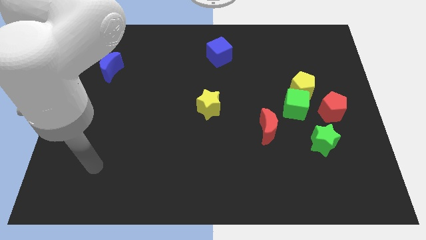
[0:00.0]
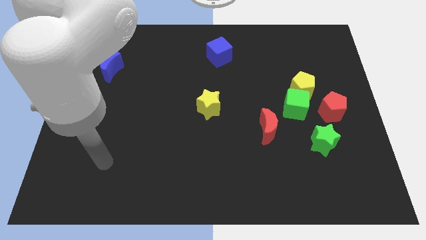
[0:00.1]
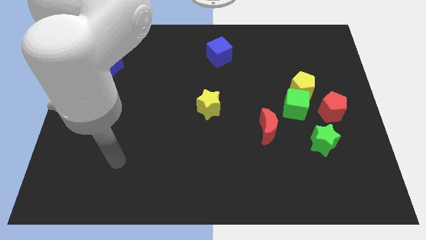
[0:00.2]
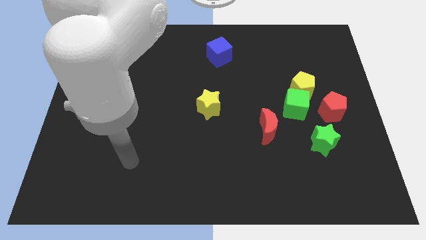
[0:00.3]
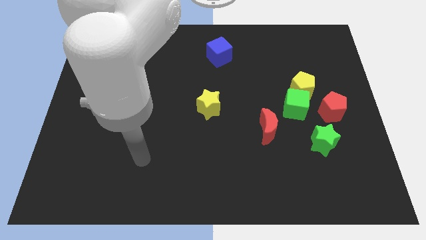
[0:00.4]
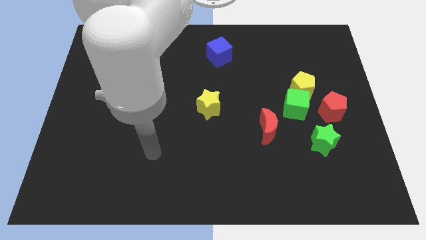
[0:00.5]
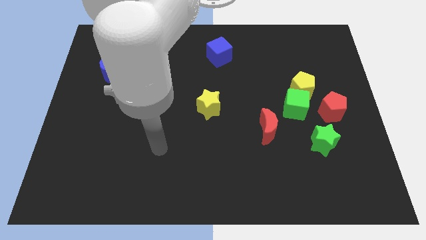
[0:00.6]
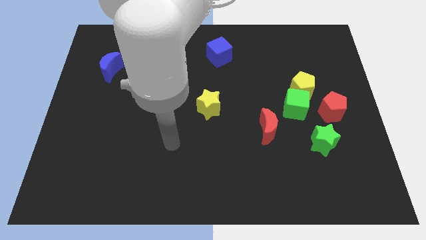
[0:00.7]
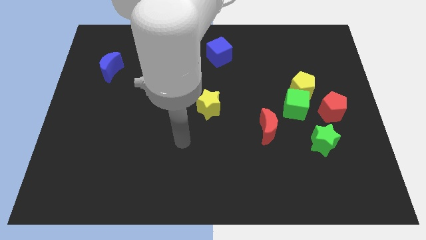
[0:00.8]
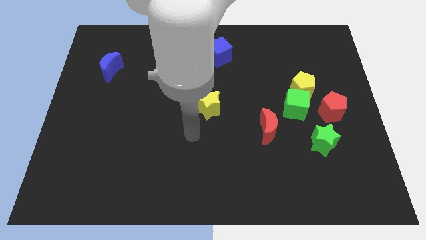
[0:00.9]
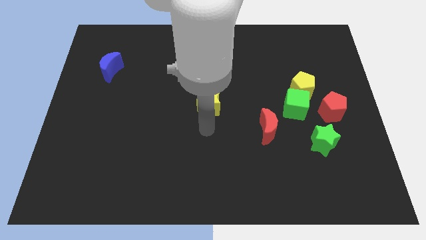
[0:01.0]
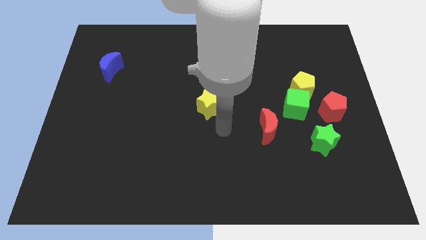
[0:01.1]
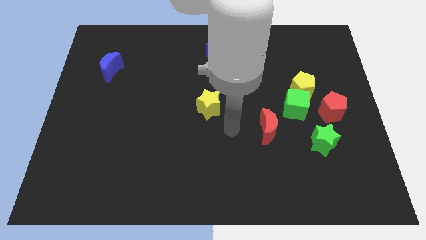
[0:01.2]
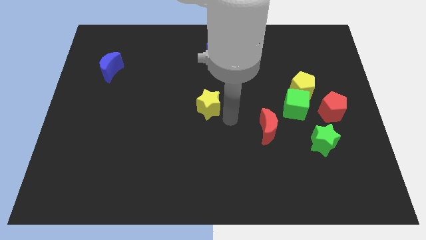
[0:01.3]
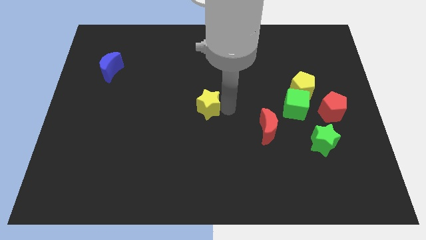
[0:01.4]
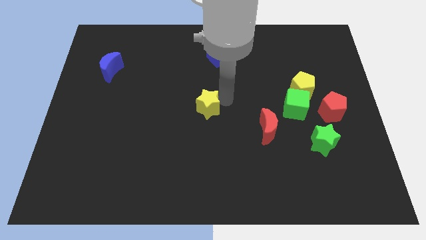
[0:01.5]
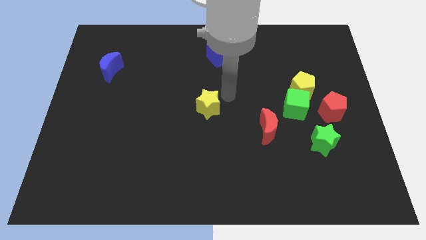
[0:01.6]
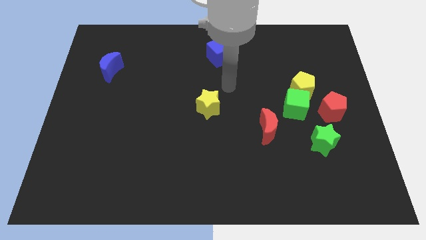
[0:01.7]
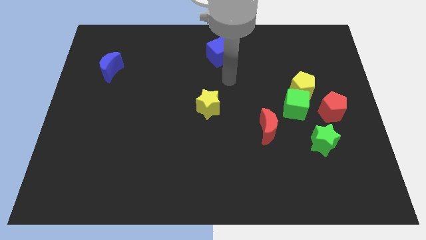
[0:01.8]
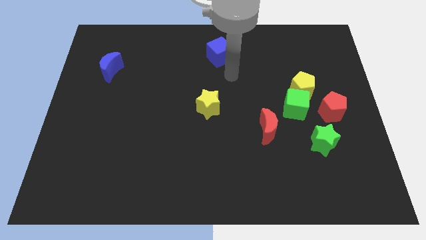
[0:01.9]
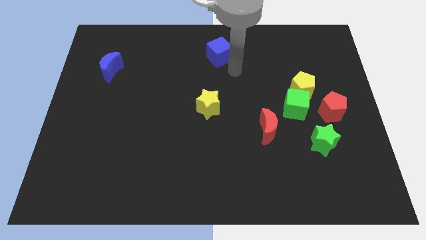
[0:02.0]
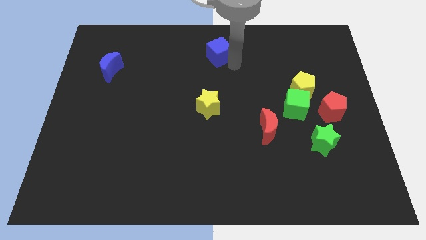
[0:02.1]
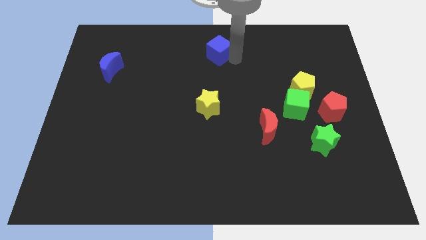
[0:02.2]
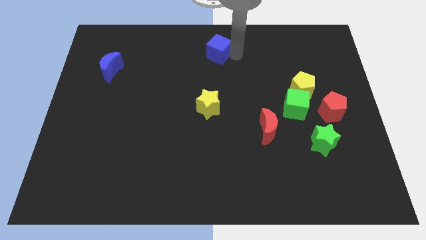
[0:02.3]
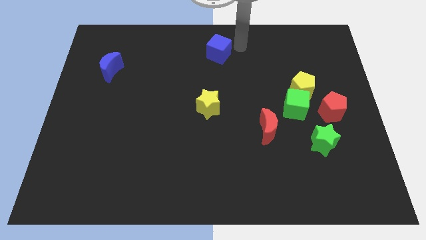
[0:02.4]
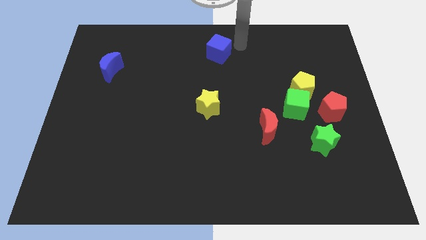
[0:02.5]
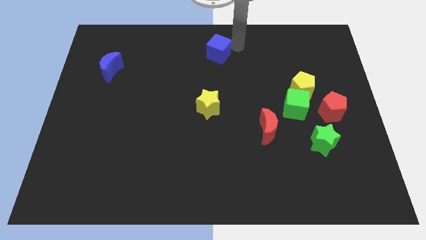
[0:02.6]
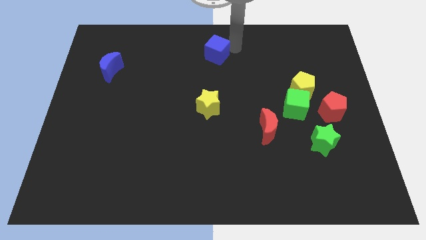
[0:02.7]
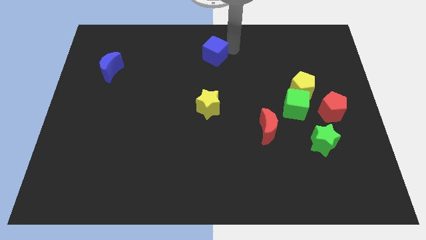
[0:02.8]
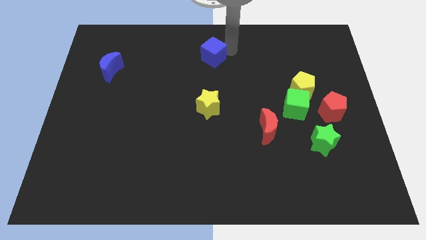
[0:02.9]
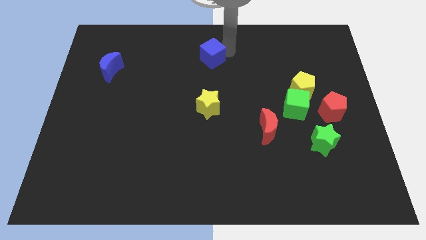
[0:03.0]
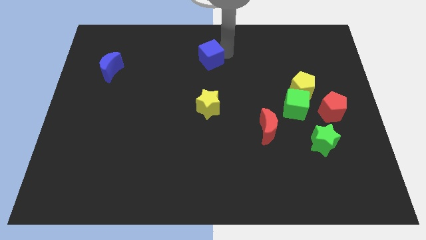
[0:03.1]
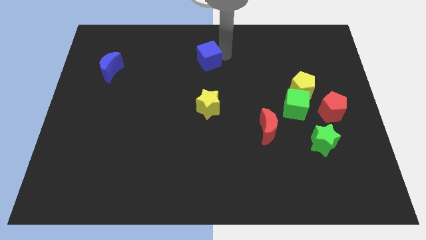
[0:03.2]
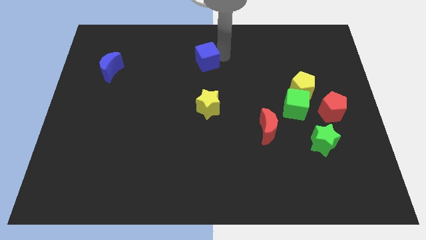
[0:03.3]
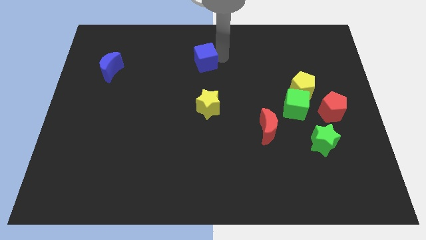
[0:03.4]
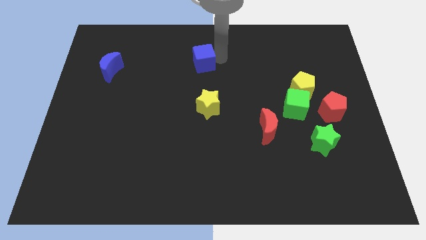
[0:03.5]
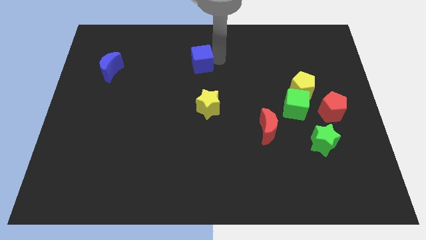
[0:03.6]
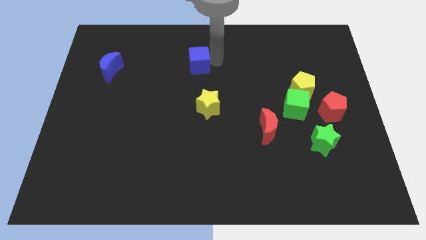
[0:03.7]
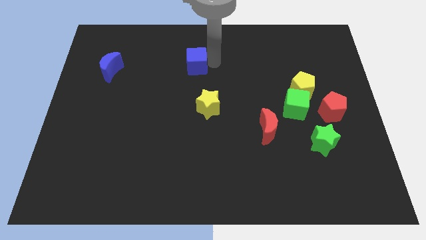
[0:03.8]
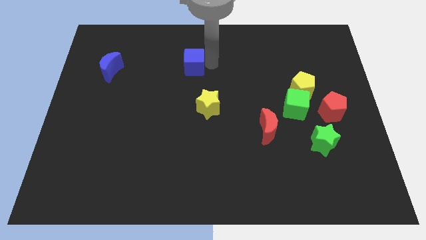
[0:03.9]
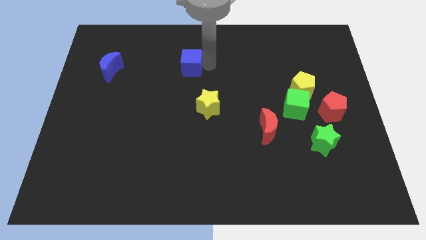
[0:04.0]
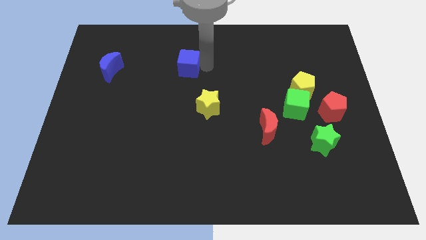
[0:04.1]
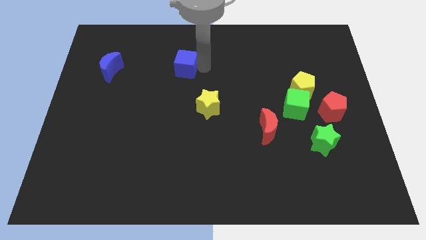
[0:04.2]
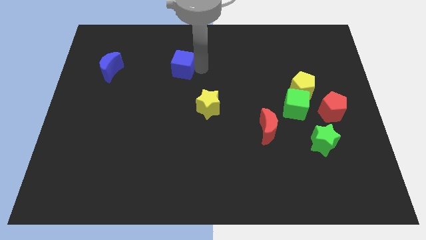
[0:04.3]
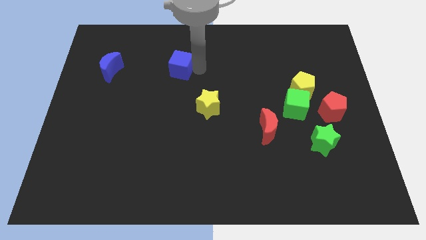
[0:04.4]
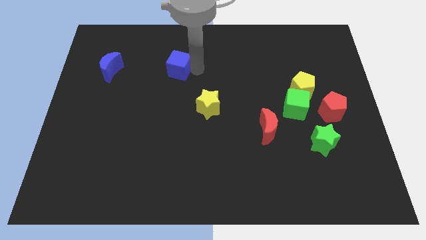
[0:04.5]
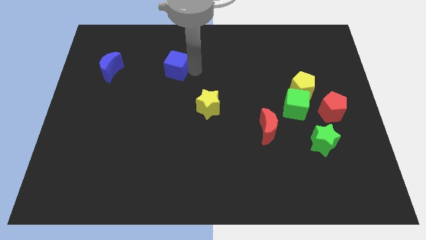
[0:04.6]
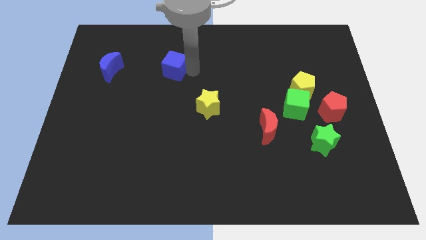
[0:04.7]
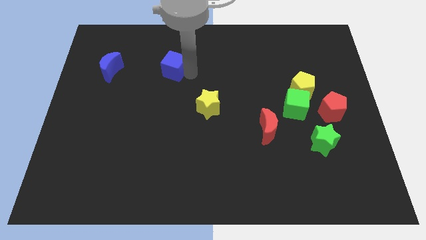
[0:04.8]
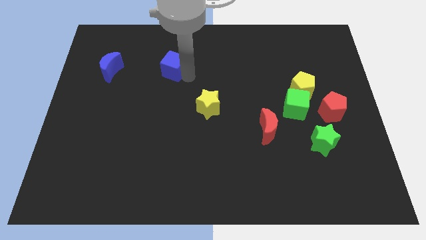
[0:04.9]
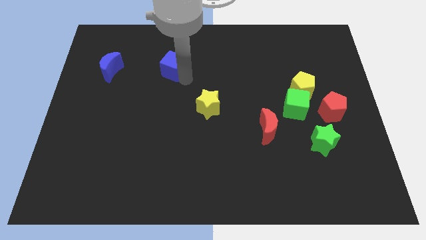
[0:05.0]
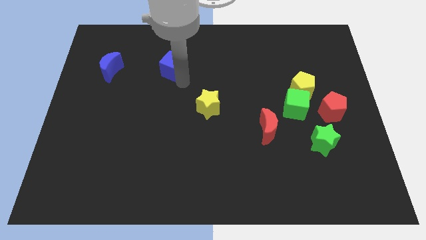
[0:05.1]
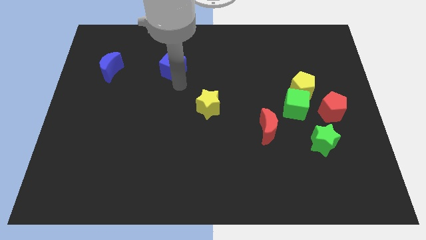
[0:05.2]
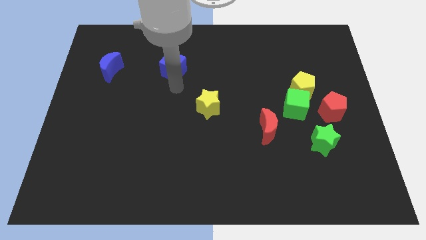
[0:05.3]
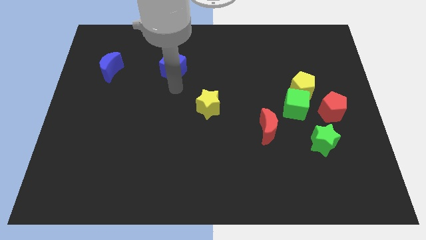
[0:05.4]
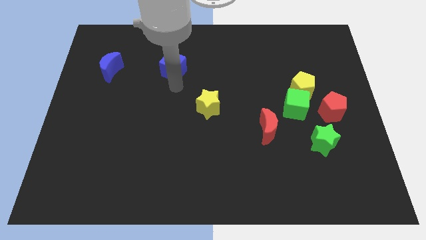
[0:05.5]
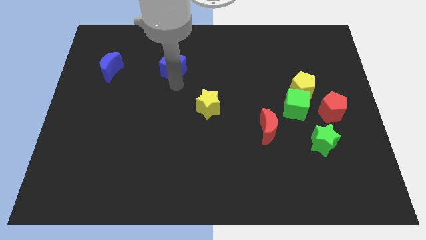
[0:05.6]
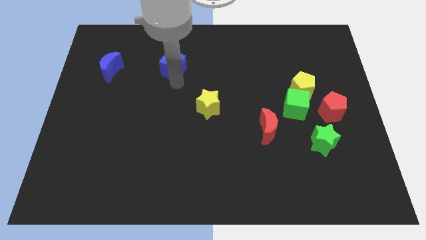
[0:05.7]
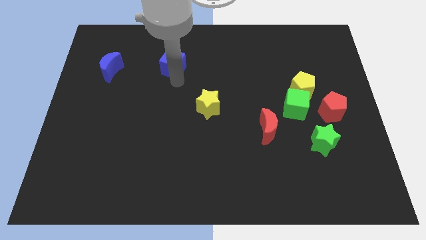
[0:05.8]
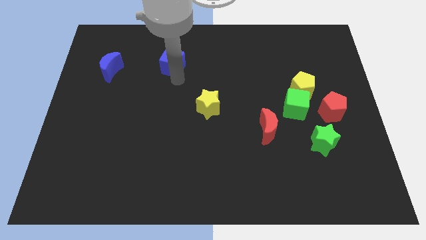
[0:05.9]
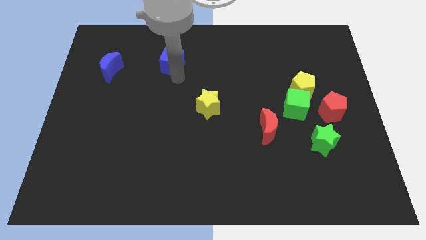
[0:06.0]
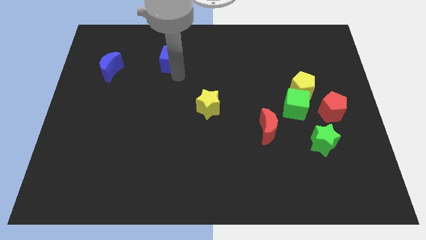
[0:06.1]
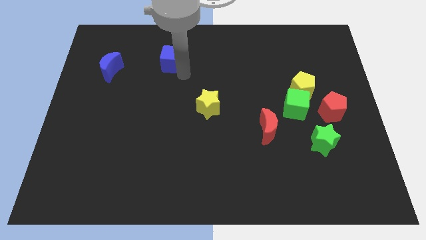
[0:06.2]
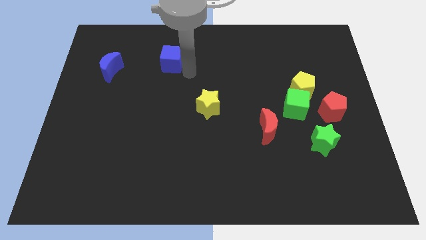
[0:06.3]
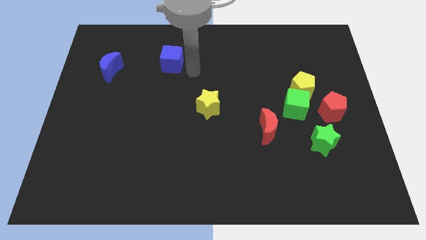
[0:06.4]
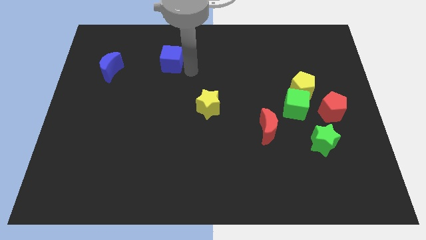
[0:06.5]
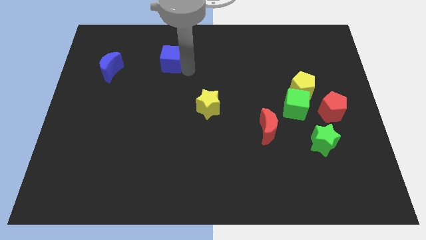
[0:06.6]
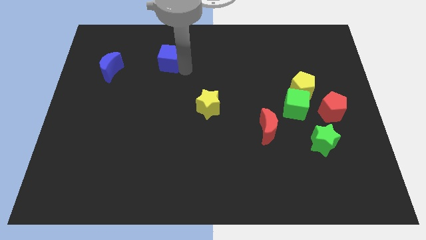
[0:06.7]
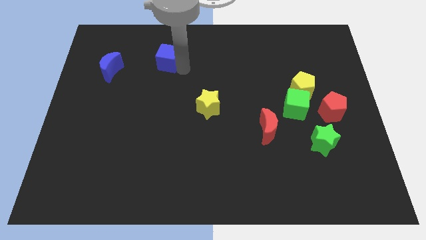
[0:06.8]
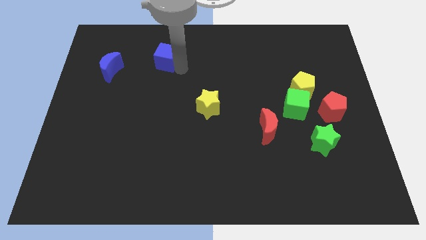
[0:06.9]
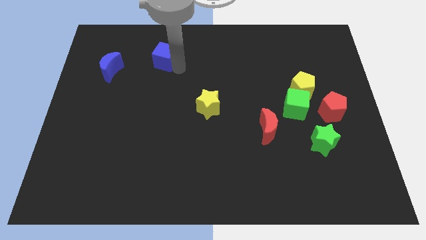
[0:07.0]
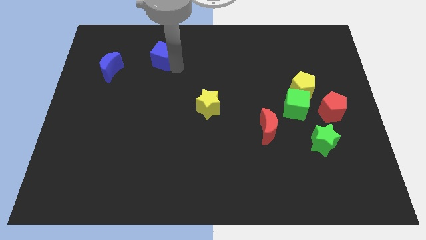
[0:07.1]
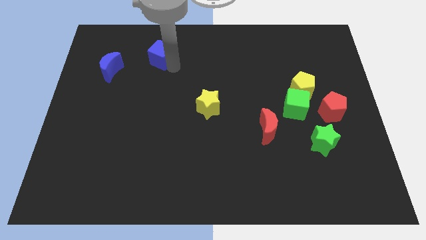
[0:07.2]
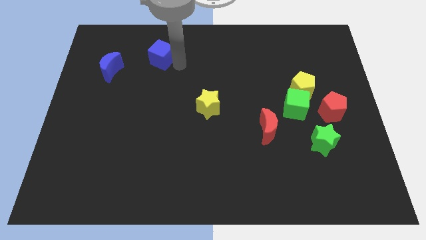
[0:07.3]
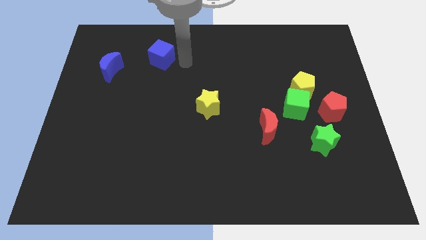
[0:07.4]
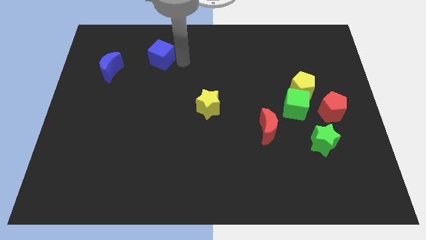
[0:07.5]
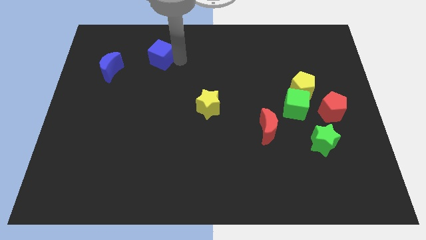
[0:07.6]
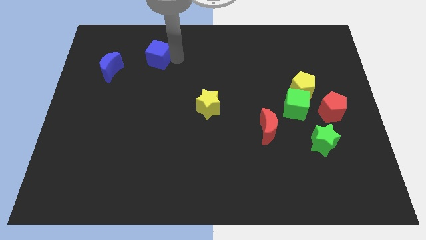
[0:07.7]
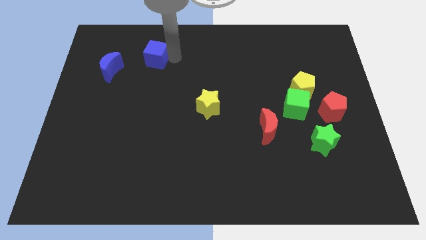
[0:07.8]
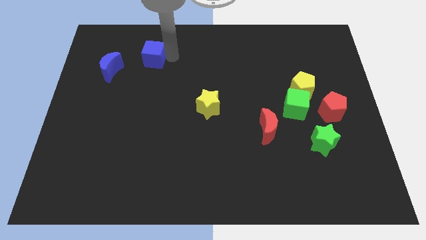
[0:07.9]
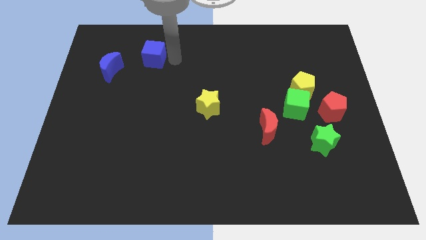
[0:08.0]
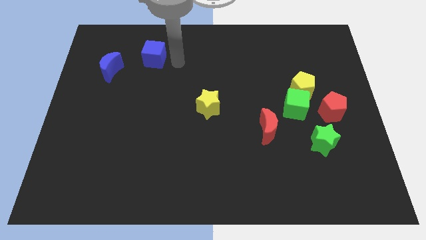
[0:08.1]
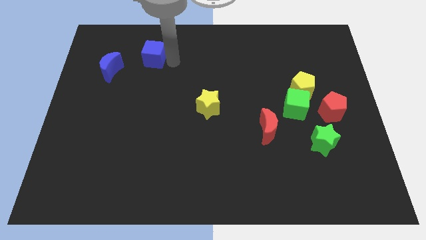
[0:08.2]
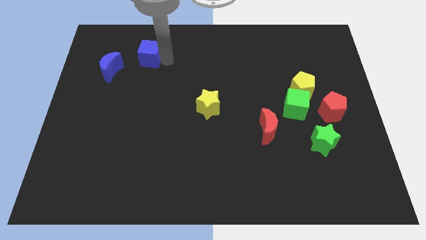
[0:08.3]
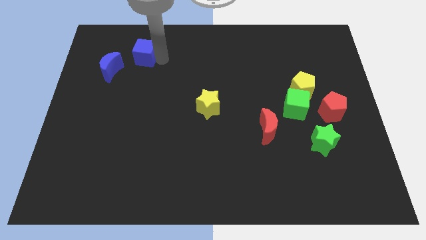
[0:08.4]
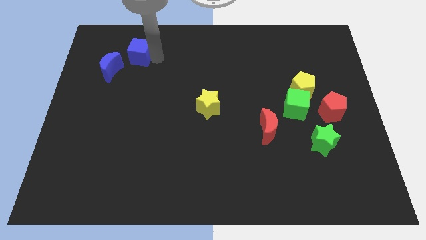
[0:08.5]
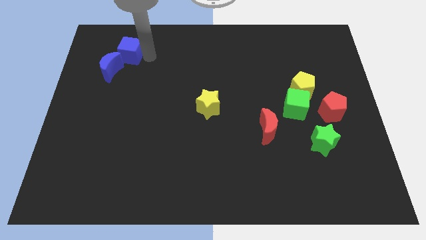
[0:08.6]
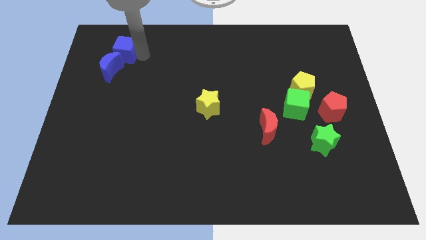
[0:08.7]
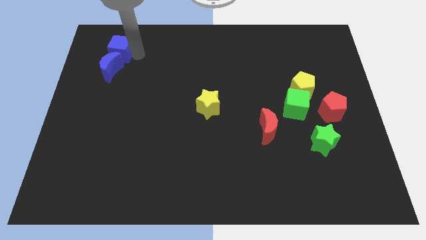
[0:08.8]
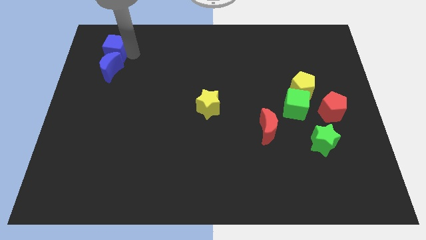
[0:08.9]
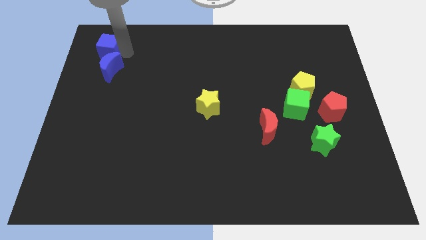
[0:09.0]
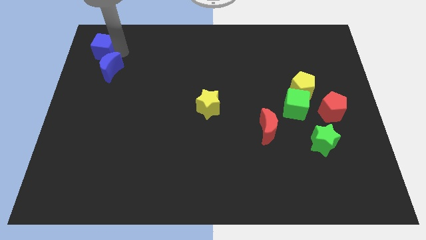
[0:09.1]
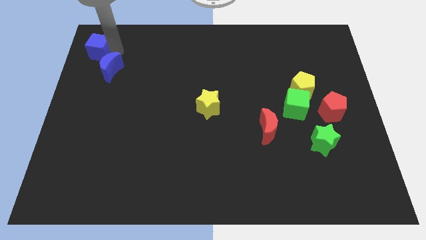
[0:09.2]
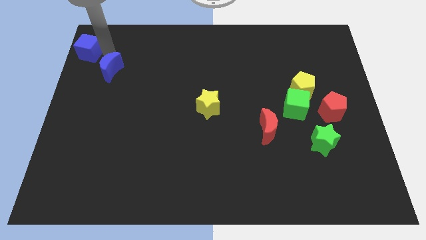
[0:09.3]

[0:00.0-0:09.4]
slide the blue cube to the top left
